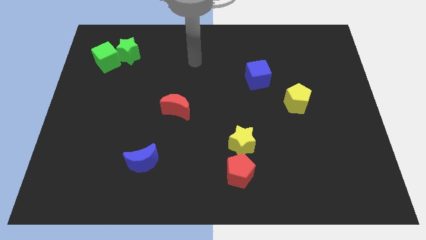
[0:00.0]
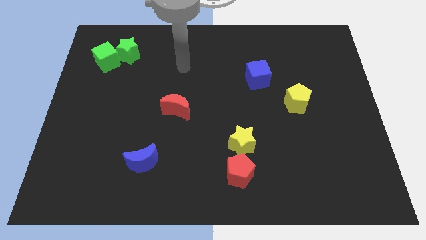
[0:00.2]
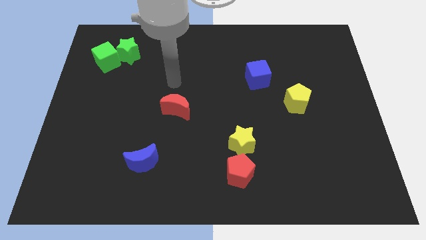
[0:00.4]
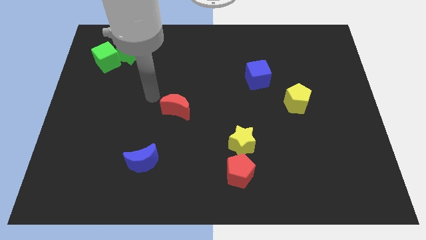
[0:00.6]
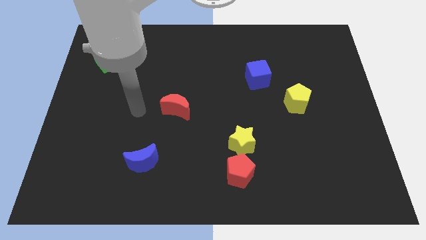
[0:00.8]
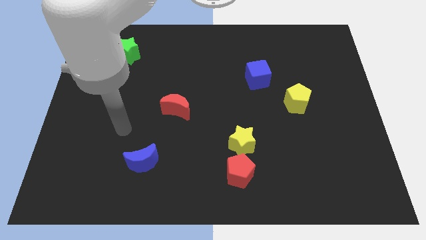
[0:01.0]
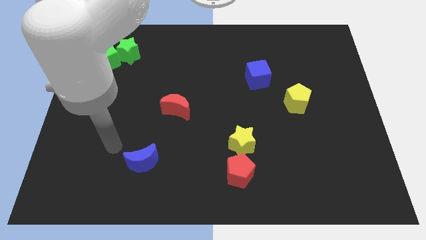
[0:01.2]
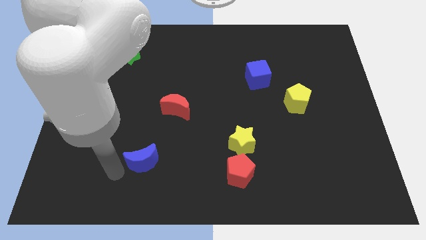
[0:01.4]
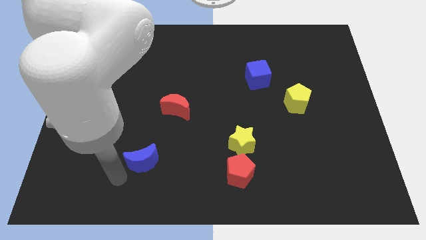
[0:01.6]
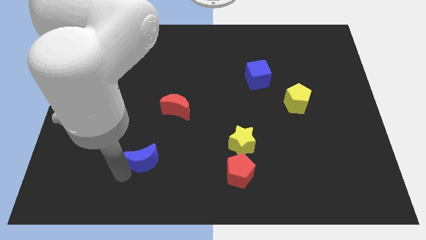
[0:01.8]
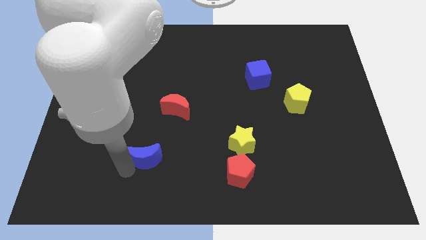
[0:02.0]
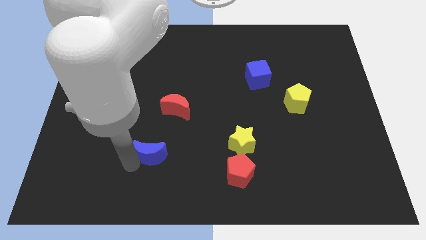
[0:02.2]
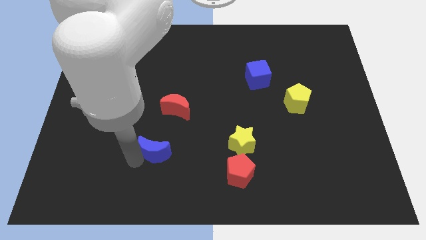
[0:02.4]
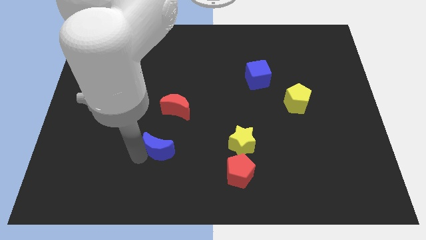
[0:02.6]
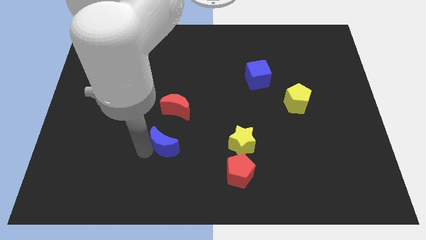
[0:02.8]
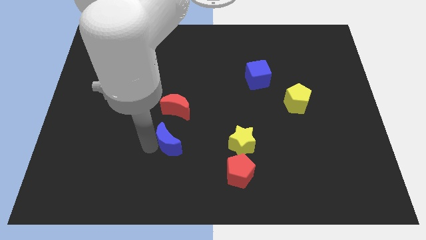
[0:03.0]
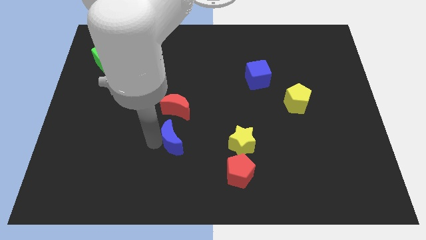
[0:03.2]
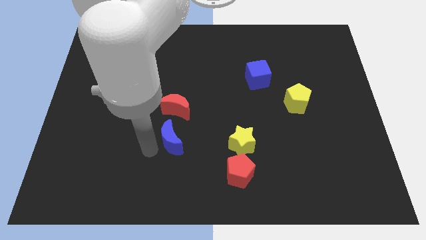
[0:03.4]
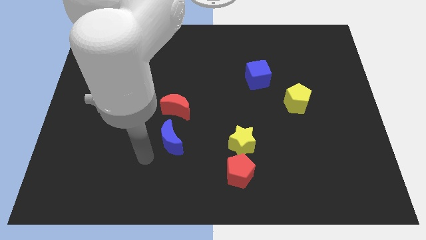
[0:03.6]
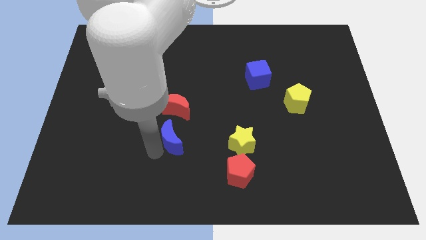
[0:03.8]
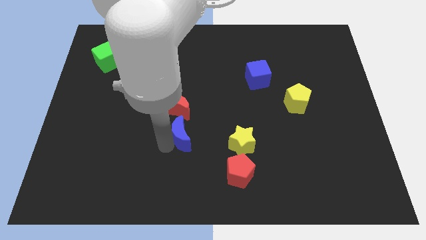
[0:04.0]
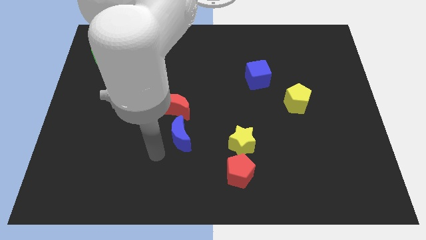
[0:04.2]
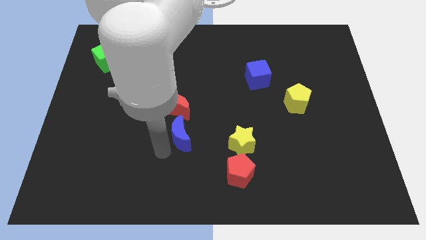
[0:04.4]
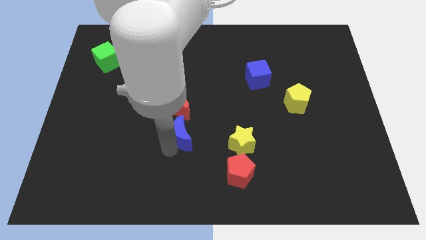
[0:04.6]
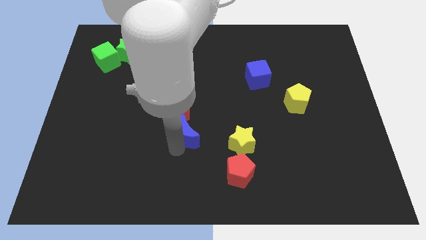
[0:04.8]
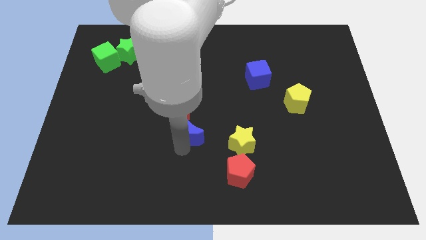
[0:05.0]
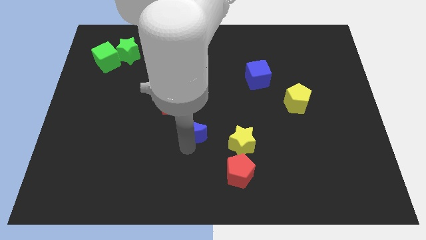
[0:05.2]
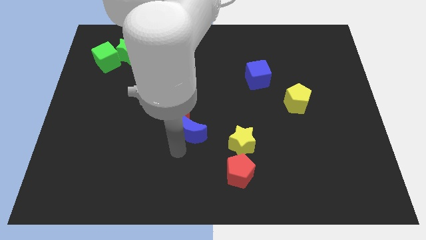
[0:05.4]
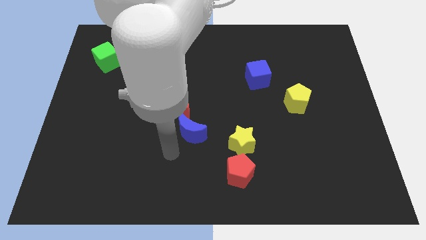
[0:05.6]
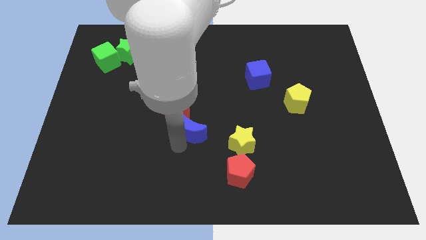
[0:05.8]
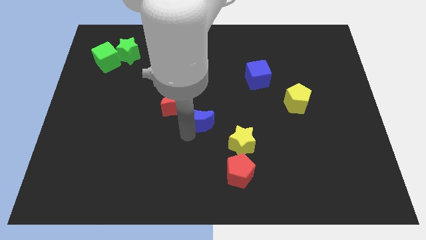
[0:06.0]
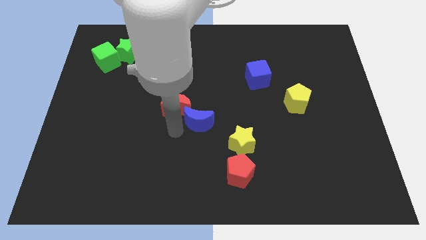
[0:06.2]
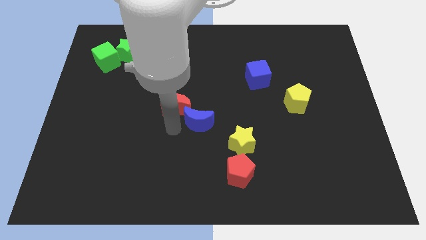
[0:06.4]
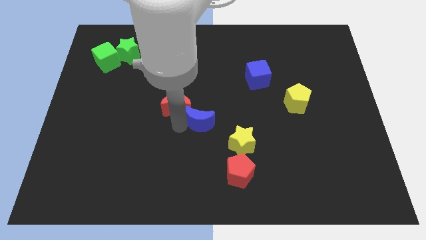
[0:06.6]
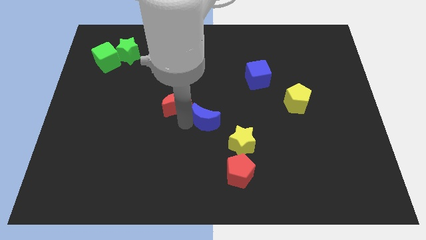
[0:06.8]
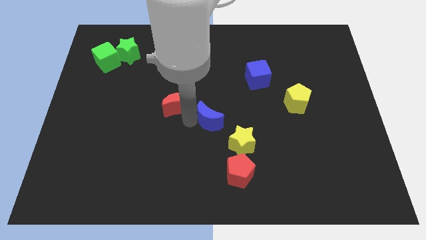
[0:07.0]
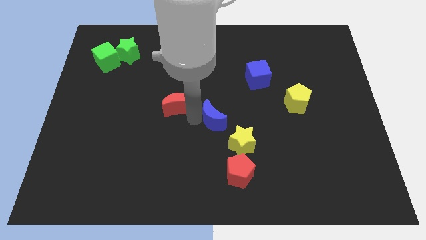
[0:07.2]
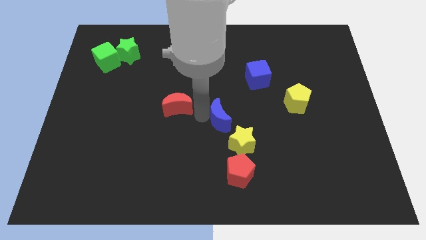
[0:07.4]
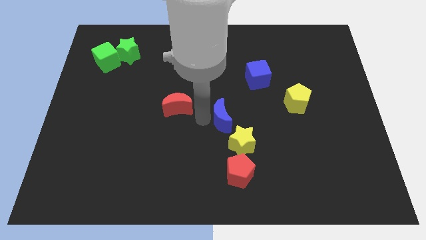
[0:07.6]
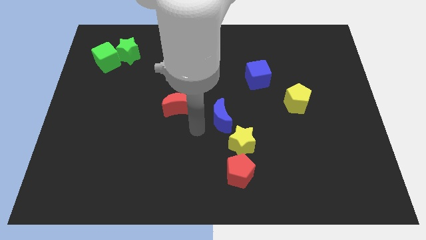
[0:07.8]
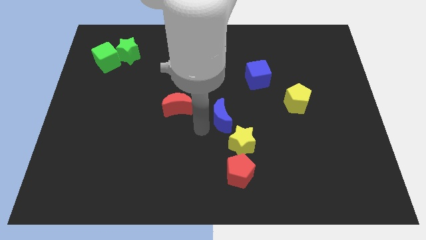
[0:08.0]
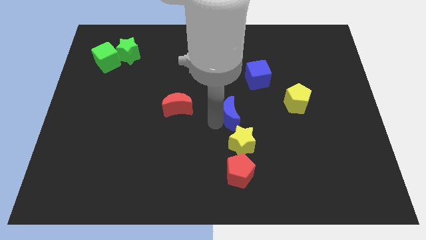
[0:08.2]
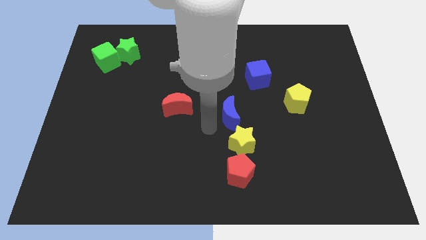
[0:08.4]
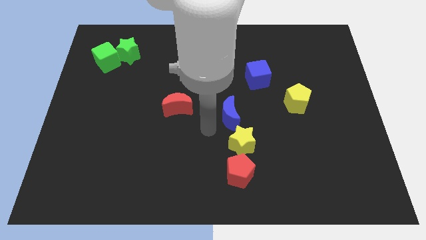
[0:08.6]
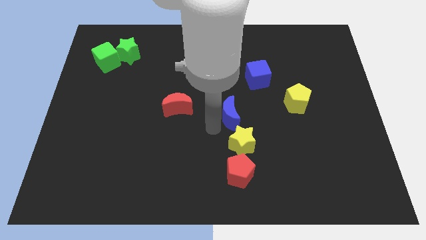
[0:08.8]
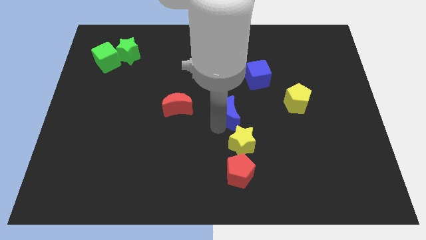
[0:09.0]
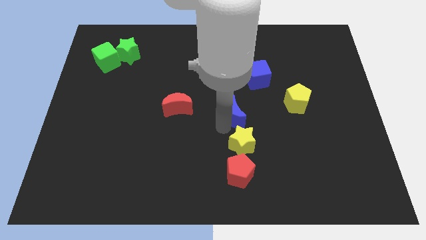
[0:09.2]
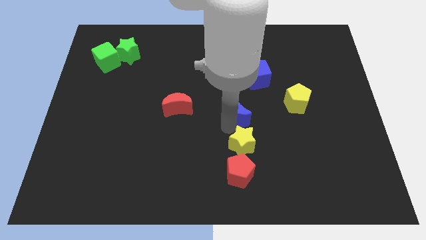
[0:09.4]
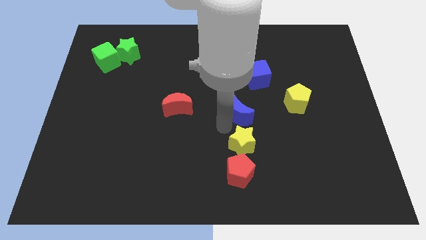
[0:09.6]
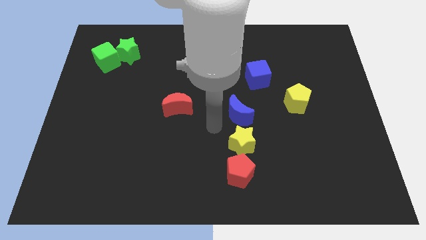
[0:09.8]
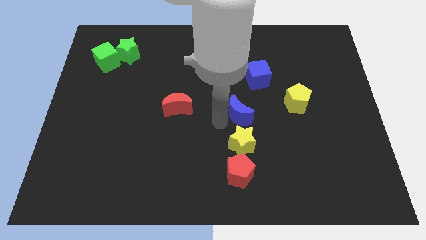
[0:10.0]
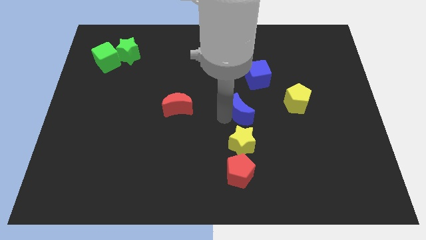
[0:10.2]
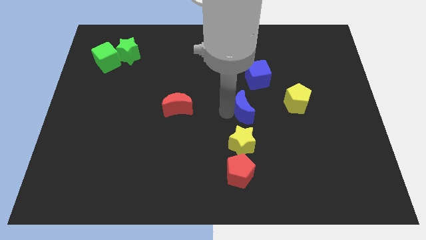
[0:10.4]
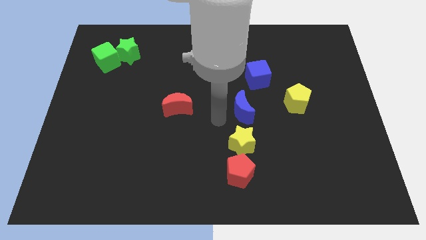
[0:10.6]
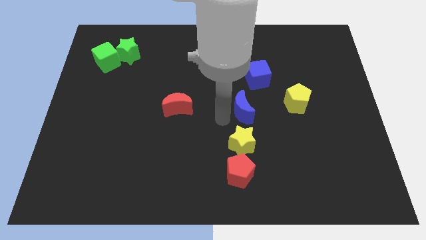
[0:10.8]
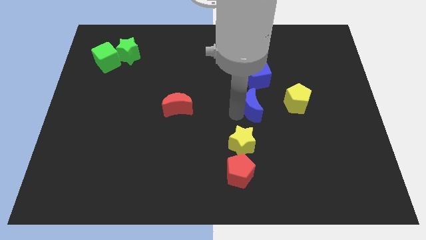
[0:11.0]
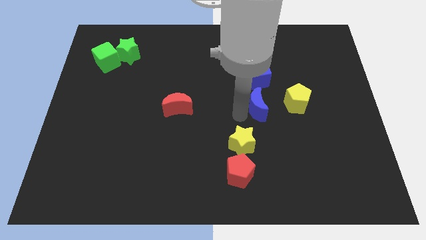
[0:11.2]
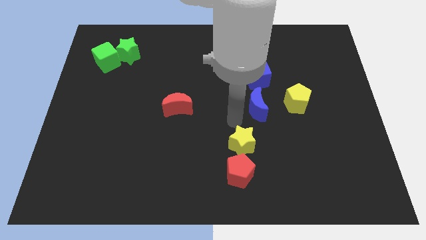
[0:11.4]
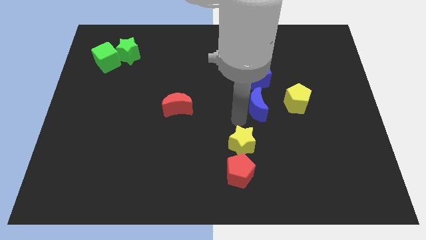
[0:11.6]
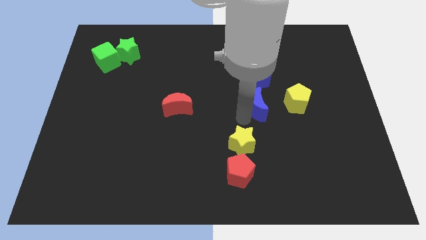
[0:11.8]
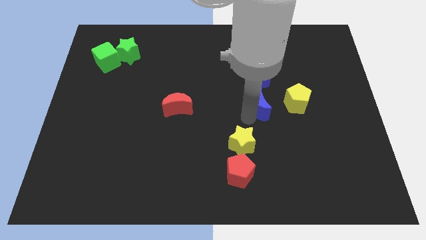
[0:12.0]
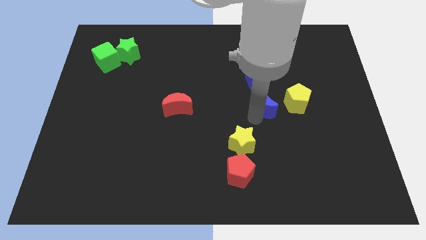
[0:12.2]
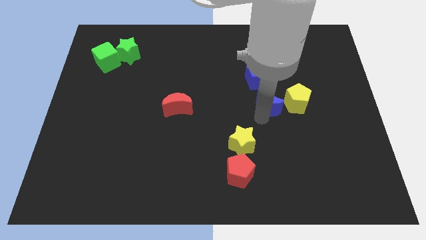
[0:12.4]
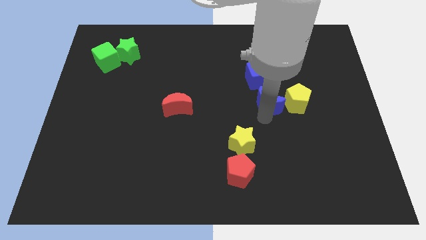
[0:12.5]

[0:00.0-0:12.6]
push the blue moon to the bottom right side of the blue cube

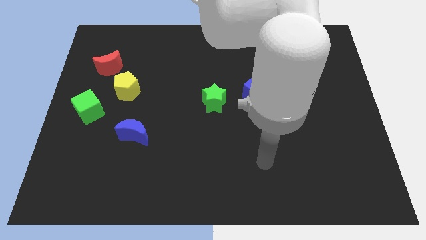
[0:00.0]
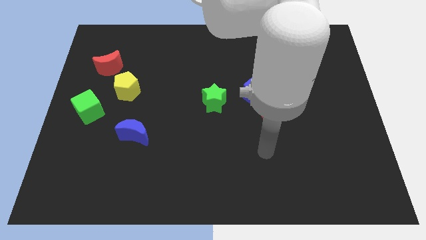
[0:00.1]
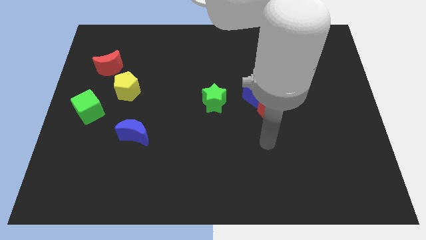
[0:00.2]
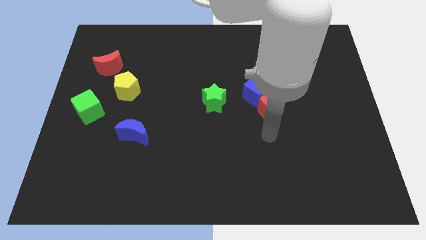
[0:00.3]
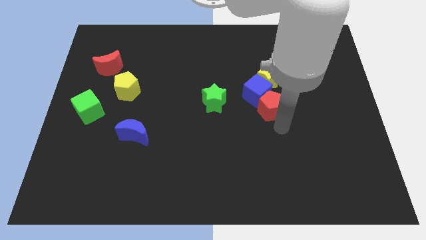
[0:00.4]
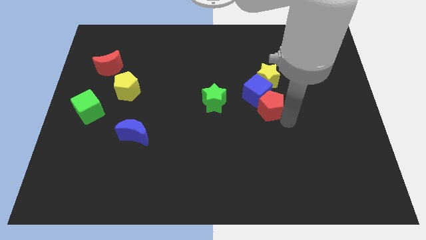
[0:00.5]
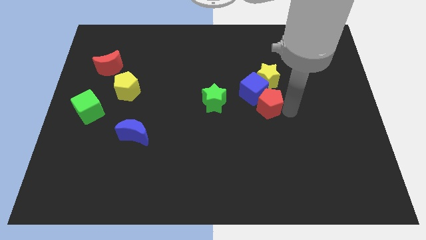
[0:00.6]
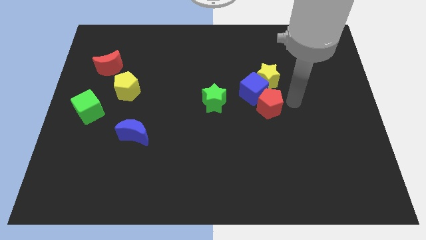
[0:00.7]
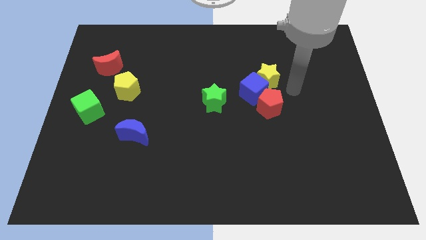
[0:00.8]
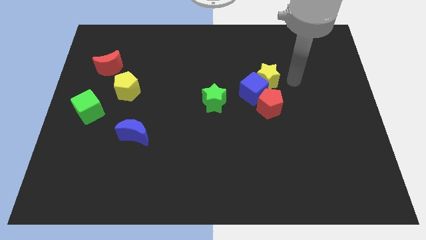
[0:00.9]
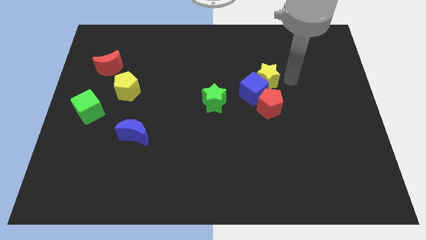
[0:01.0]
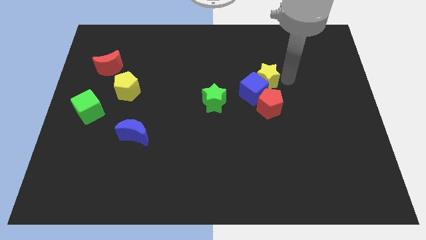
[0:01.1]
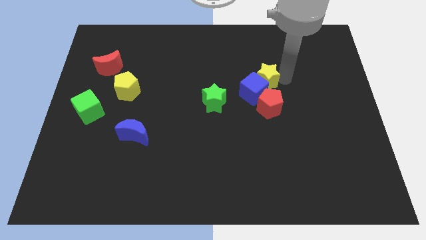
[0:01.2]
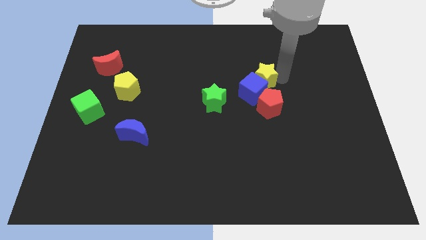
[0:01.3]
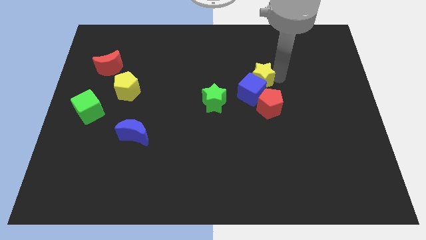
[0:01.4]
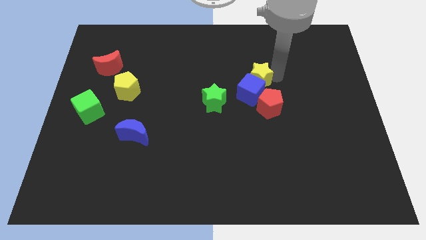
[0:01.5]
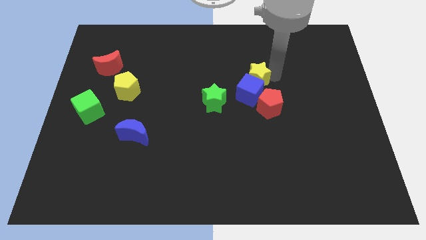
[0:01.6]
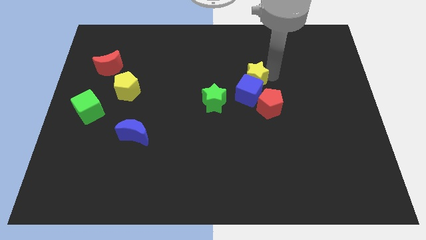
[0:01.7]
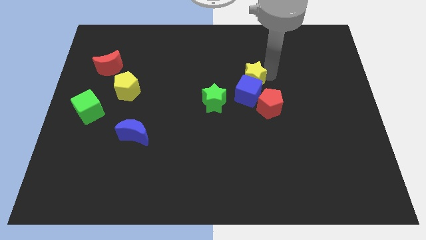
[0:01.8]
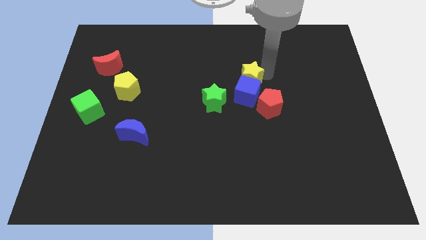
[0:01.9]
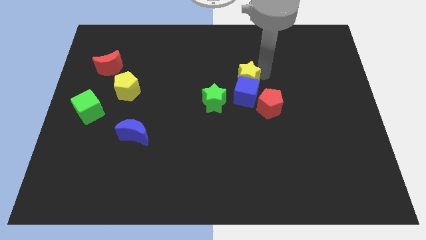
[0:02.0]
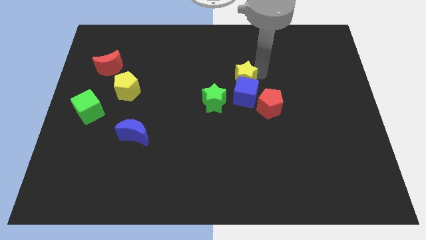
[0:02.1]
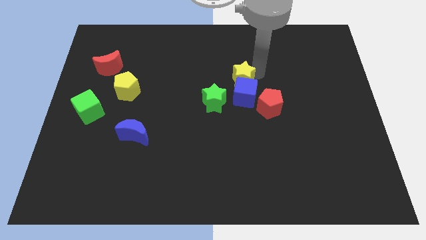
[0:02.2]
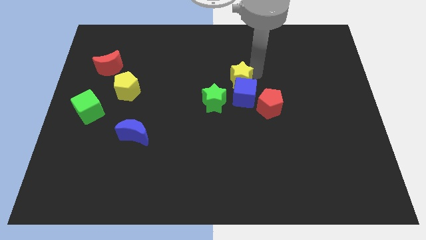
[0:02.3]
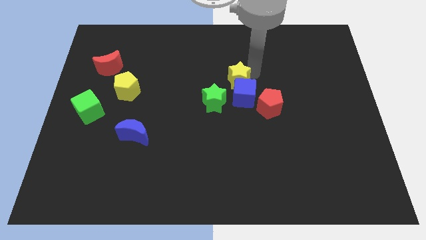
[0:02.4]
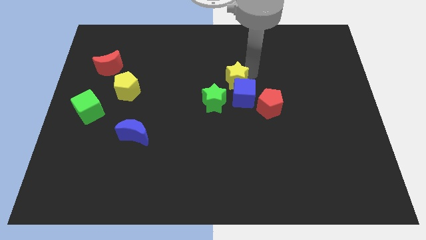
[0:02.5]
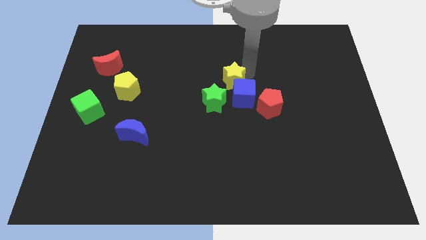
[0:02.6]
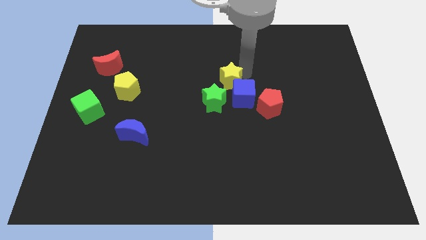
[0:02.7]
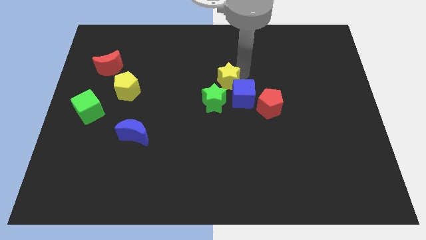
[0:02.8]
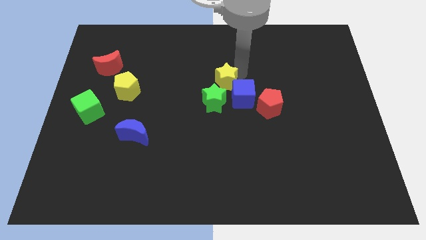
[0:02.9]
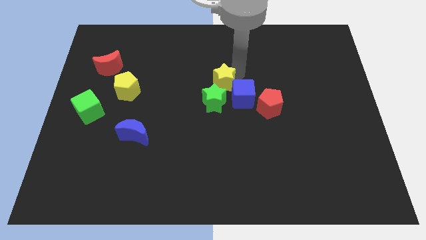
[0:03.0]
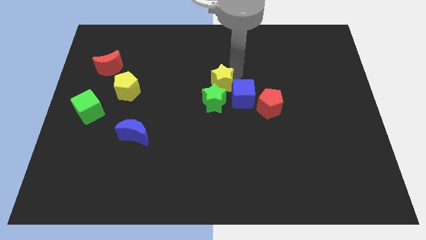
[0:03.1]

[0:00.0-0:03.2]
push the yellow star left of the blue cube
